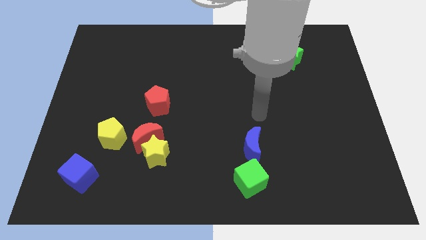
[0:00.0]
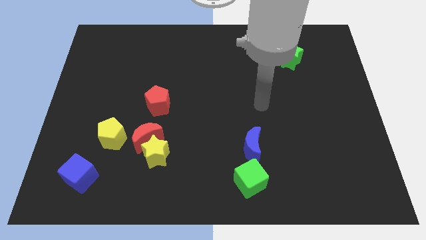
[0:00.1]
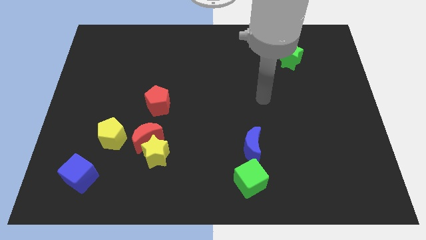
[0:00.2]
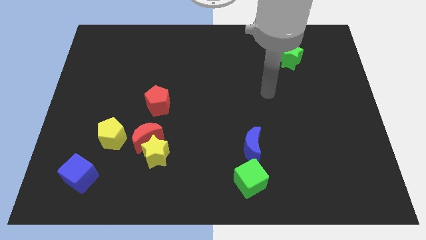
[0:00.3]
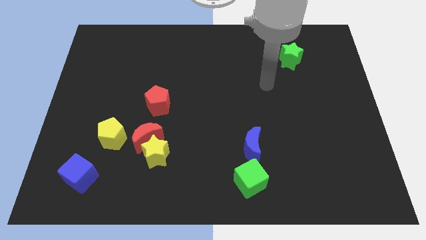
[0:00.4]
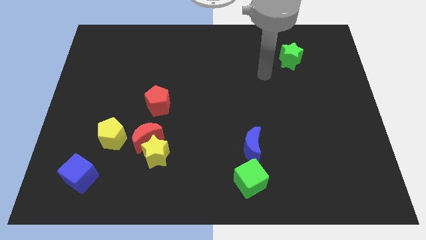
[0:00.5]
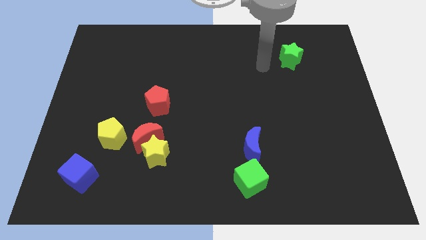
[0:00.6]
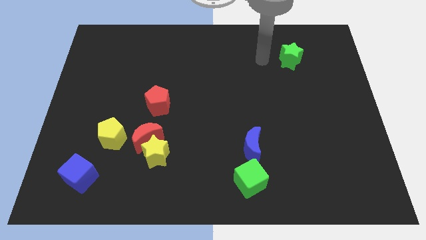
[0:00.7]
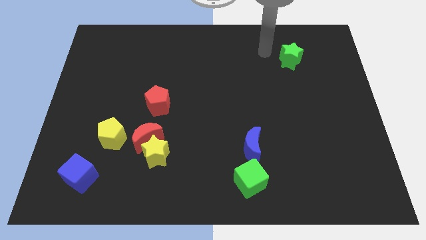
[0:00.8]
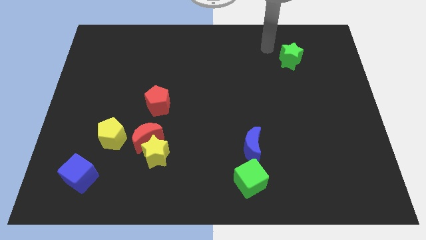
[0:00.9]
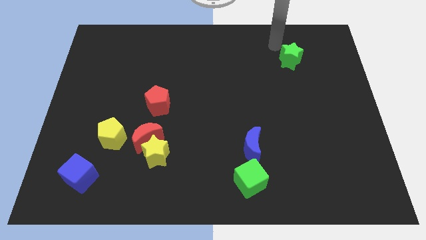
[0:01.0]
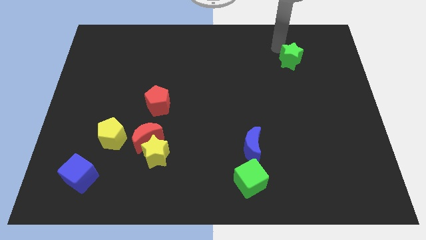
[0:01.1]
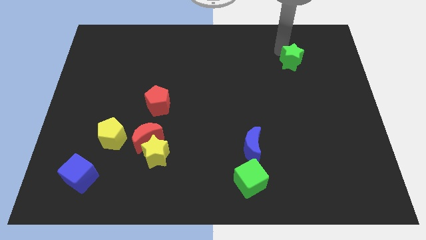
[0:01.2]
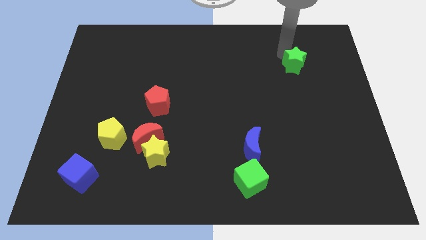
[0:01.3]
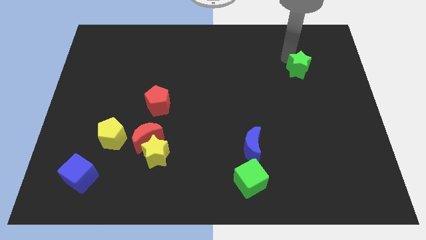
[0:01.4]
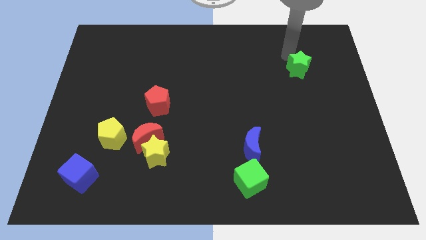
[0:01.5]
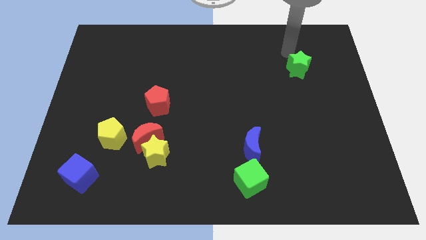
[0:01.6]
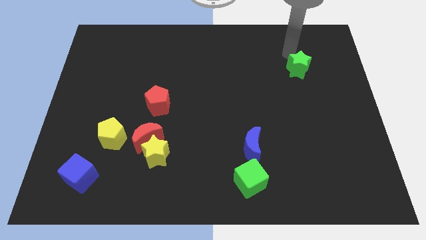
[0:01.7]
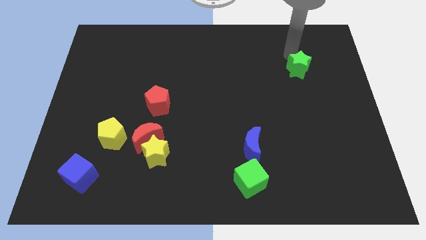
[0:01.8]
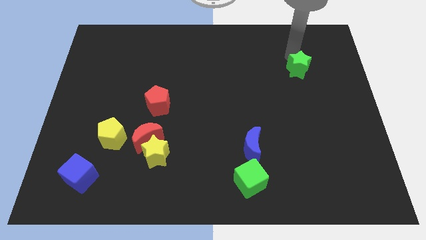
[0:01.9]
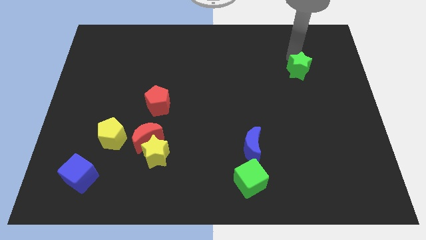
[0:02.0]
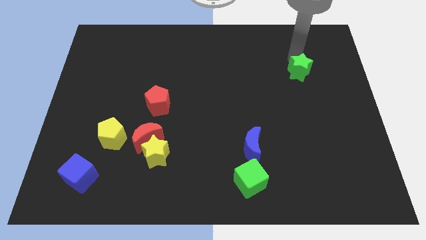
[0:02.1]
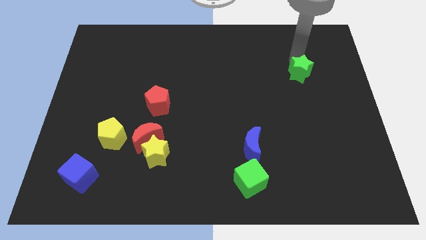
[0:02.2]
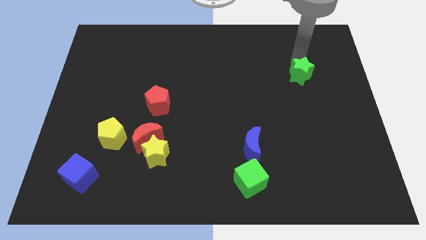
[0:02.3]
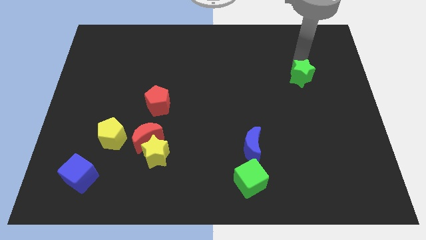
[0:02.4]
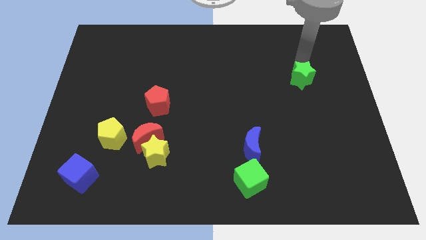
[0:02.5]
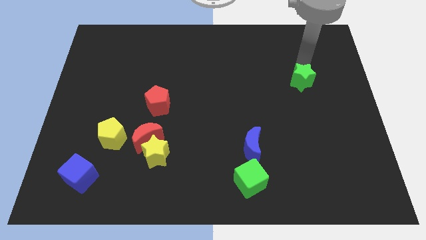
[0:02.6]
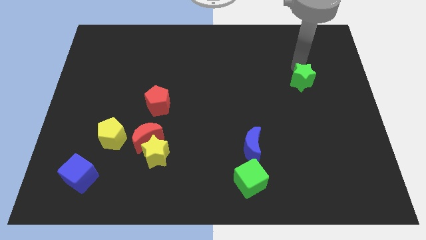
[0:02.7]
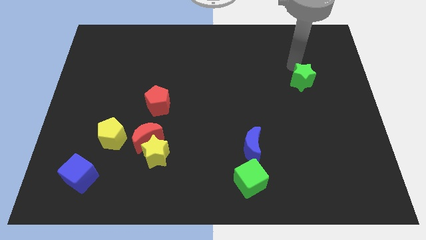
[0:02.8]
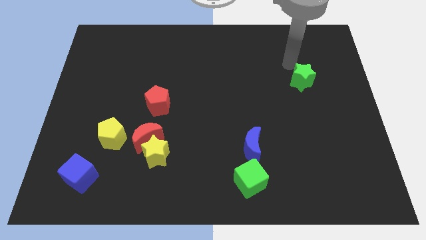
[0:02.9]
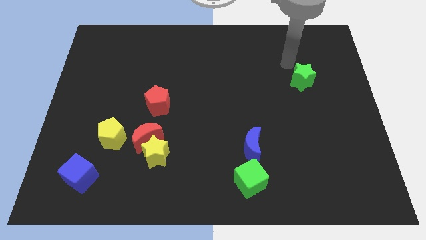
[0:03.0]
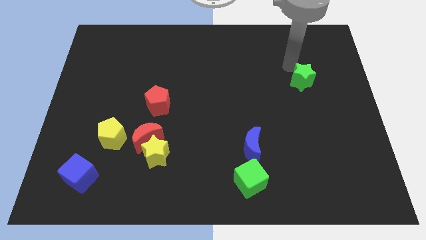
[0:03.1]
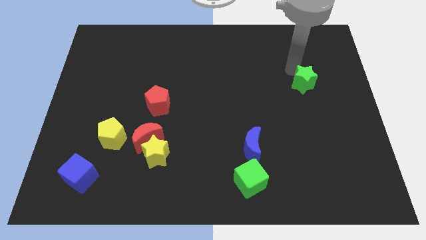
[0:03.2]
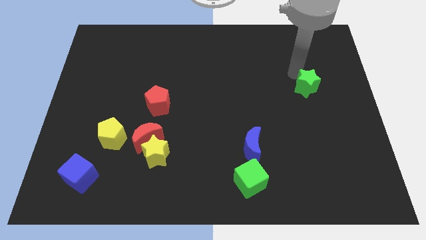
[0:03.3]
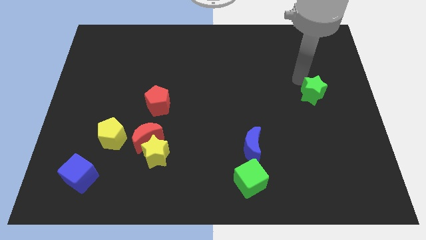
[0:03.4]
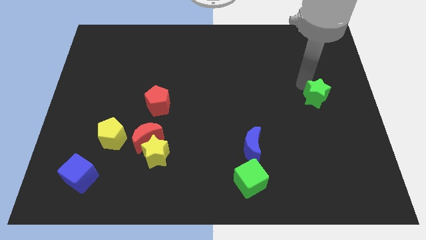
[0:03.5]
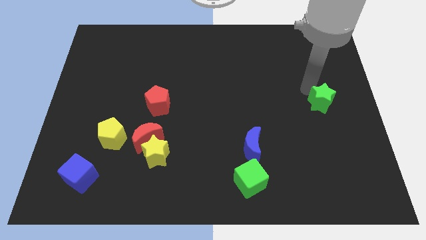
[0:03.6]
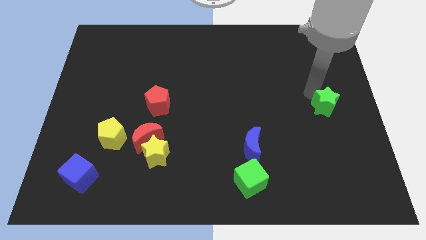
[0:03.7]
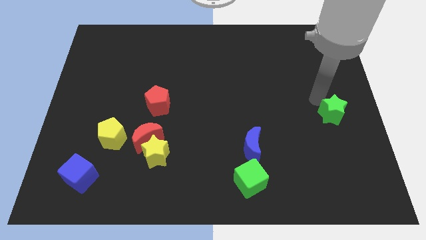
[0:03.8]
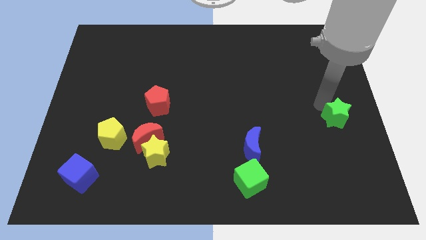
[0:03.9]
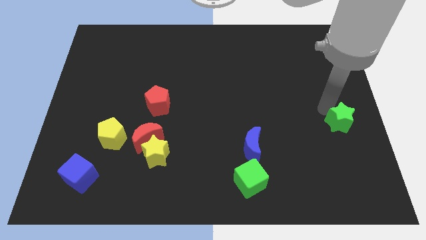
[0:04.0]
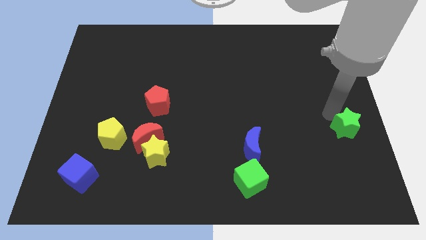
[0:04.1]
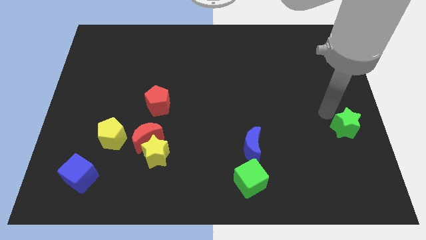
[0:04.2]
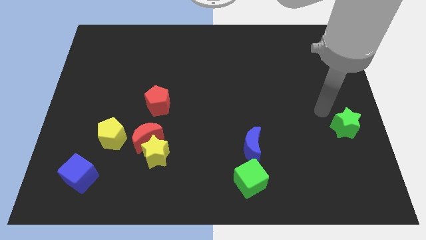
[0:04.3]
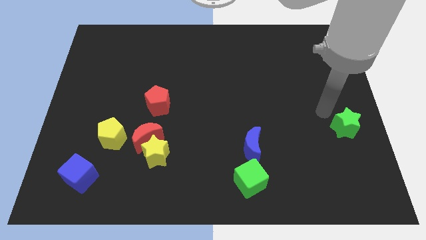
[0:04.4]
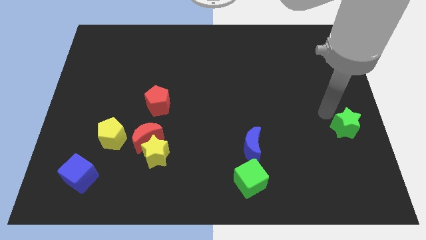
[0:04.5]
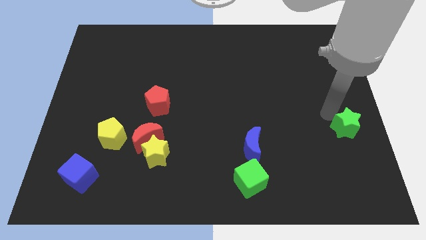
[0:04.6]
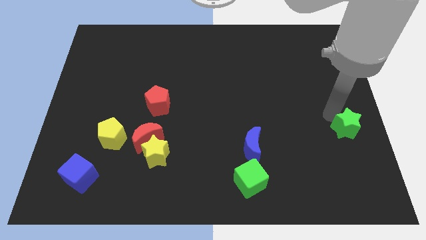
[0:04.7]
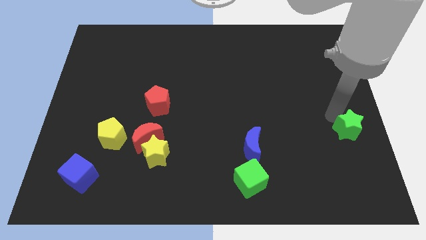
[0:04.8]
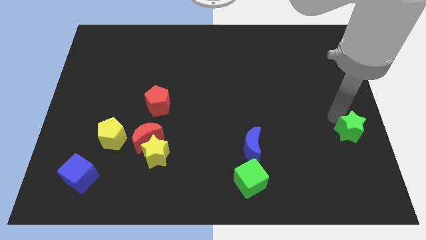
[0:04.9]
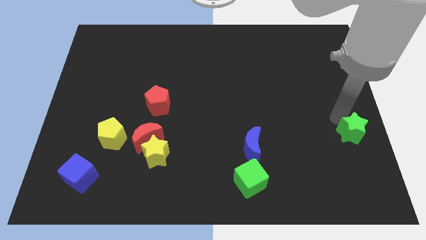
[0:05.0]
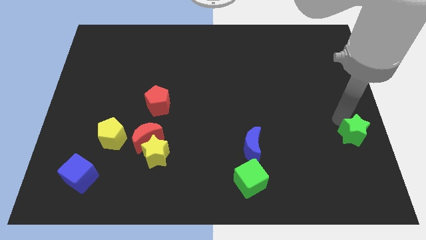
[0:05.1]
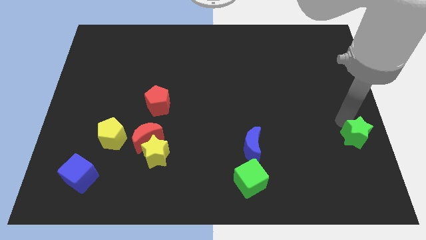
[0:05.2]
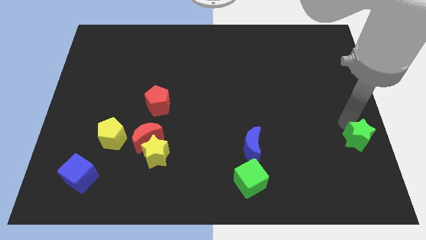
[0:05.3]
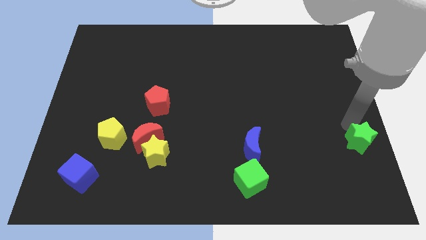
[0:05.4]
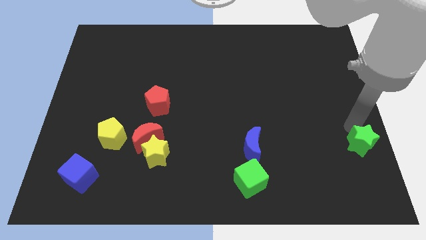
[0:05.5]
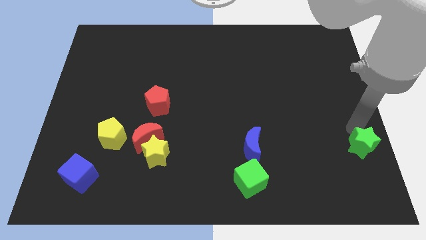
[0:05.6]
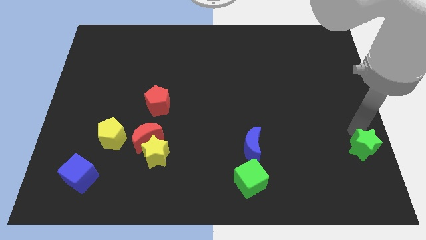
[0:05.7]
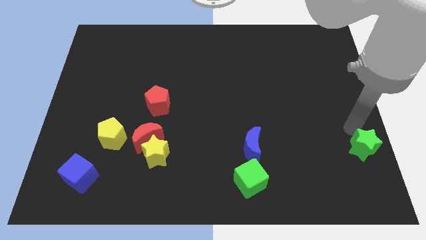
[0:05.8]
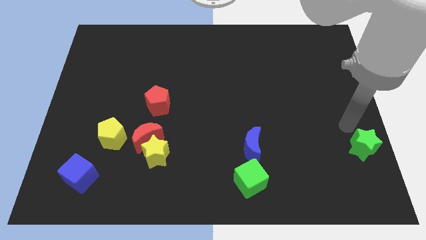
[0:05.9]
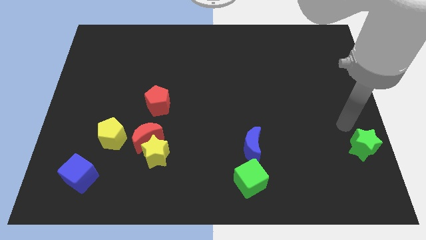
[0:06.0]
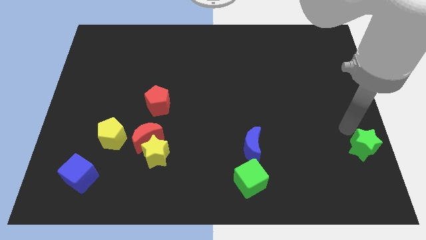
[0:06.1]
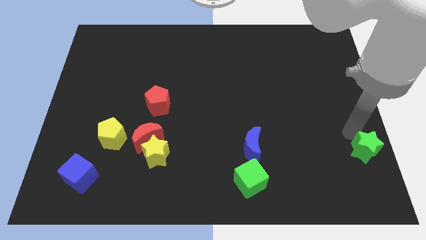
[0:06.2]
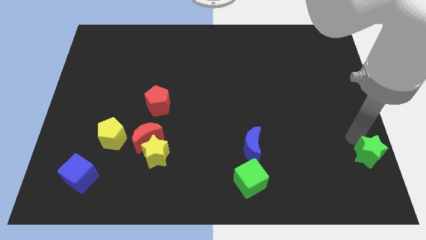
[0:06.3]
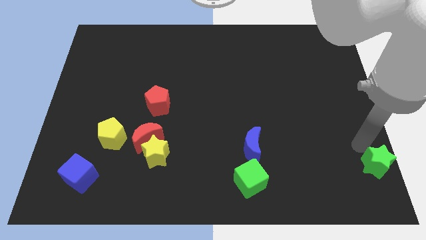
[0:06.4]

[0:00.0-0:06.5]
put the green star to the lower right corner

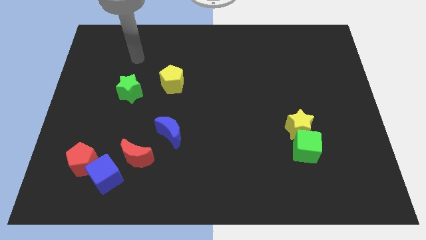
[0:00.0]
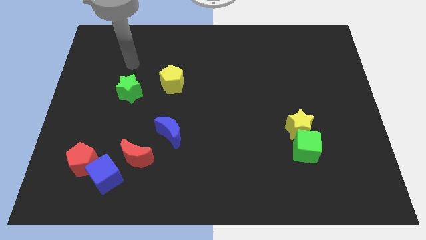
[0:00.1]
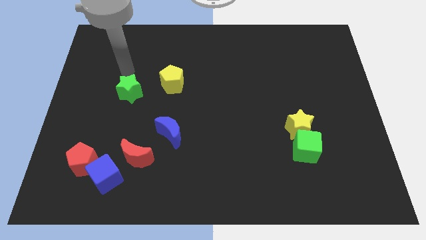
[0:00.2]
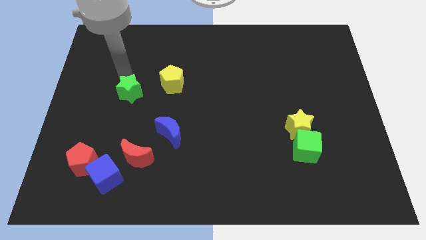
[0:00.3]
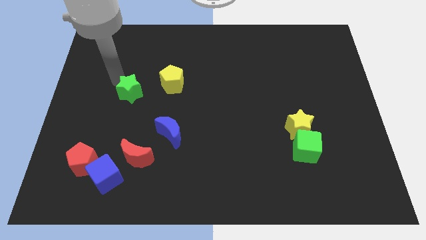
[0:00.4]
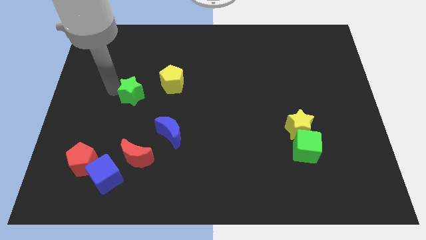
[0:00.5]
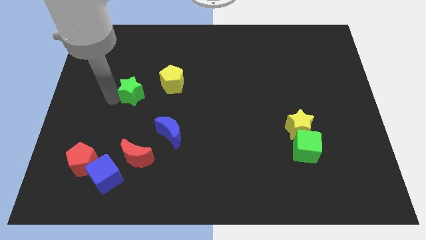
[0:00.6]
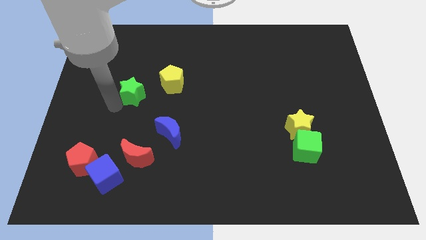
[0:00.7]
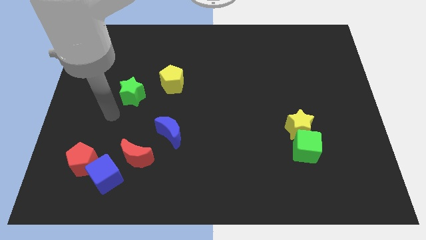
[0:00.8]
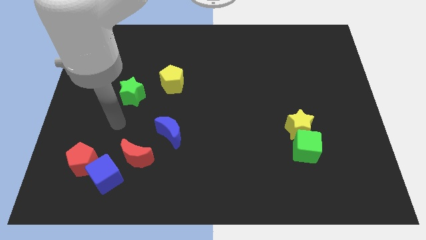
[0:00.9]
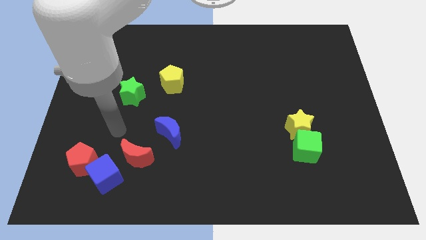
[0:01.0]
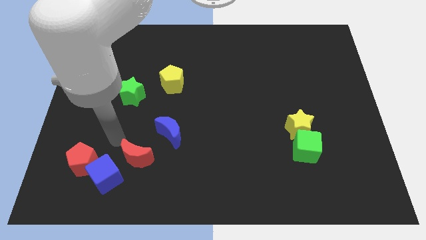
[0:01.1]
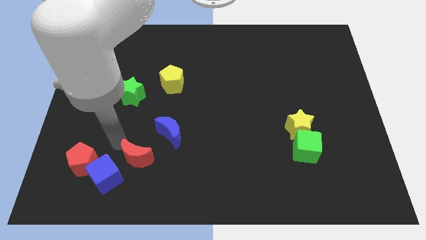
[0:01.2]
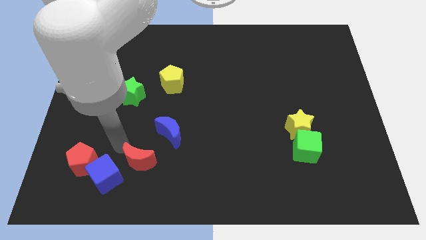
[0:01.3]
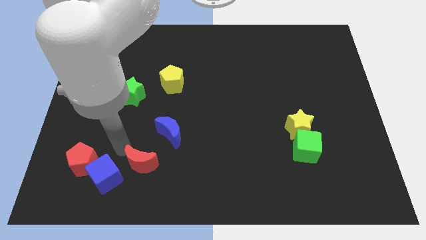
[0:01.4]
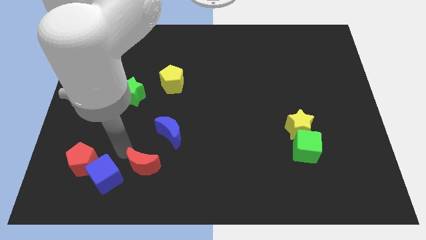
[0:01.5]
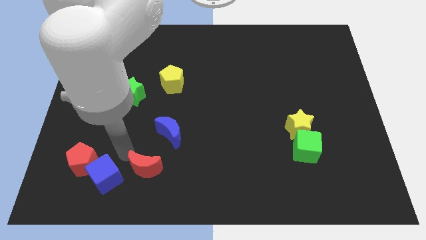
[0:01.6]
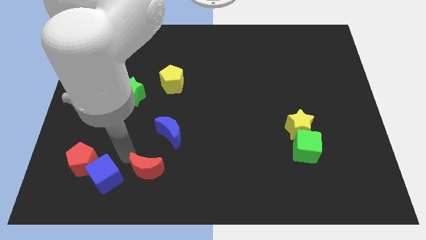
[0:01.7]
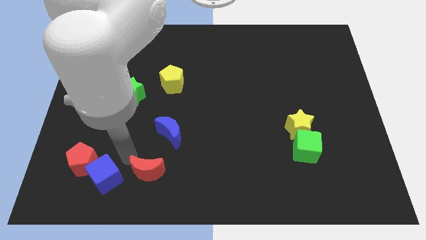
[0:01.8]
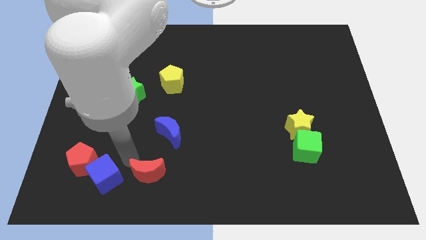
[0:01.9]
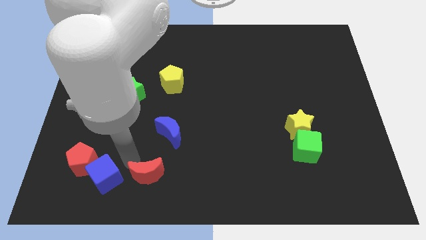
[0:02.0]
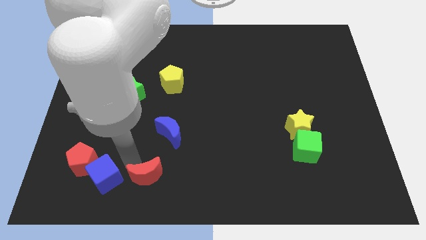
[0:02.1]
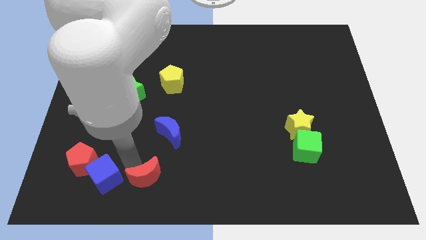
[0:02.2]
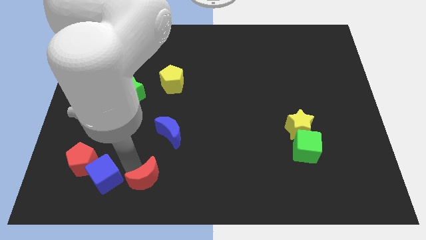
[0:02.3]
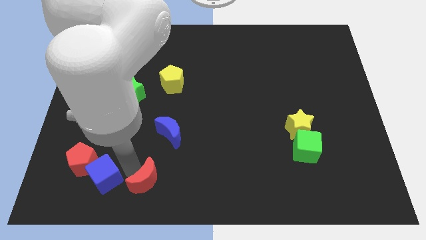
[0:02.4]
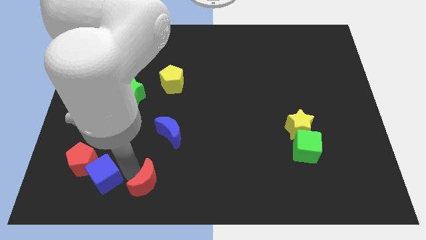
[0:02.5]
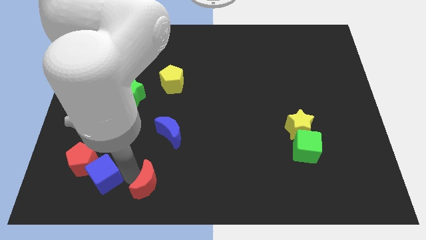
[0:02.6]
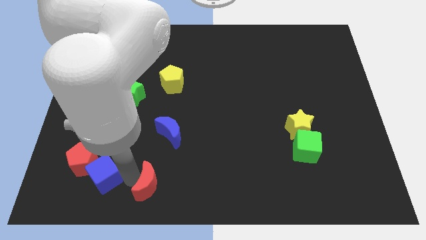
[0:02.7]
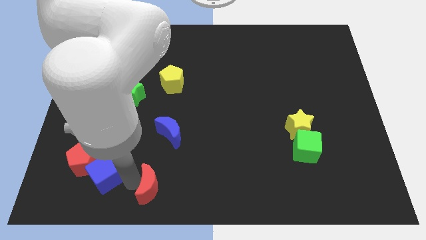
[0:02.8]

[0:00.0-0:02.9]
put the red moon to the bottom
